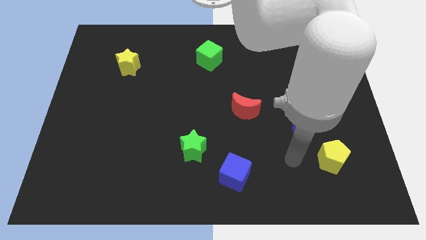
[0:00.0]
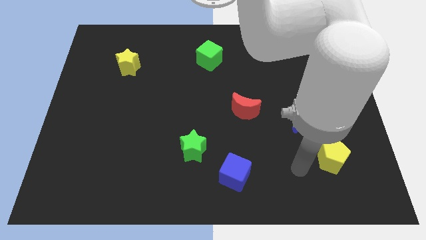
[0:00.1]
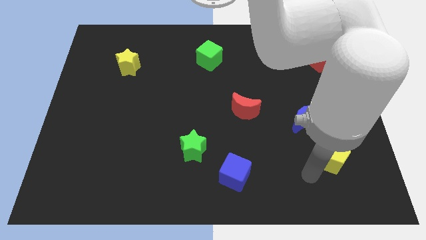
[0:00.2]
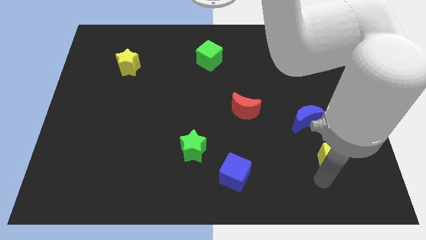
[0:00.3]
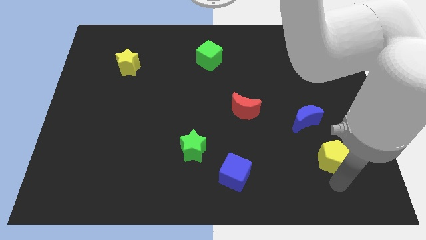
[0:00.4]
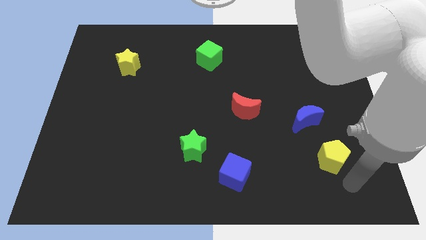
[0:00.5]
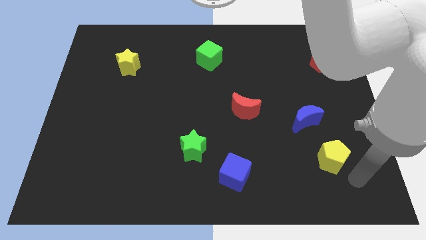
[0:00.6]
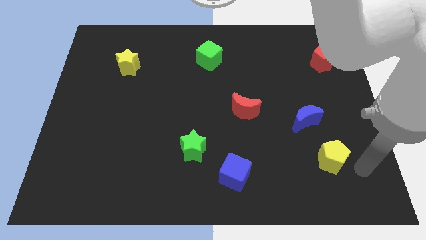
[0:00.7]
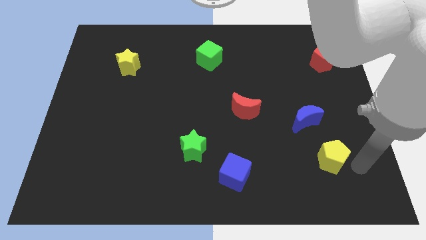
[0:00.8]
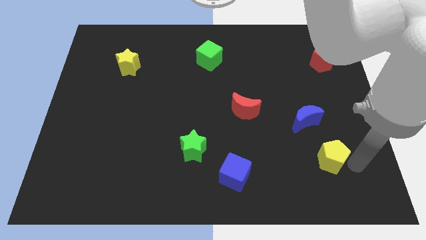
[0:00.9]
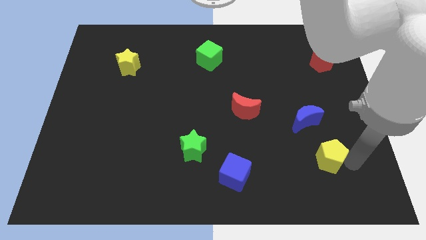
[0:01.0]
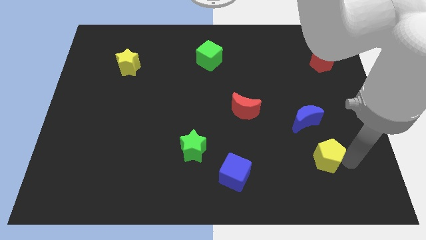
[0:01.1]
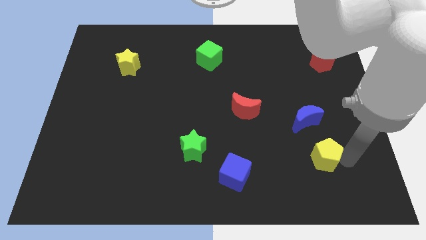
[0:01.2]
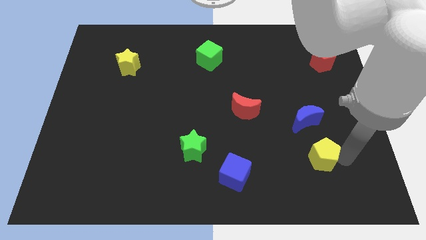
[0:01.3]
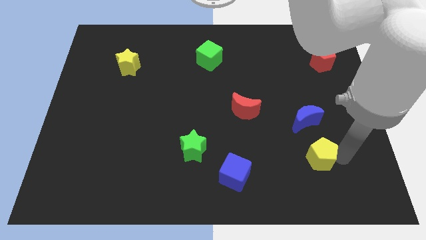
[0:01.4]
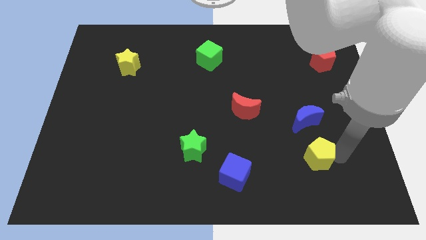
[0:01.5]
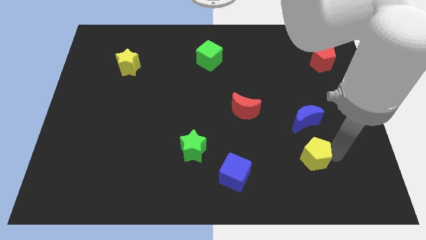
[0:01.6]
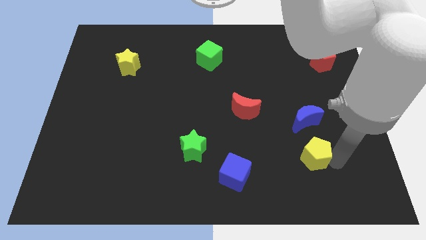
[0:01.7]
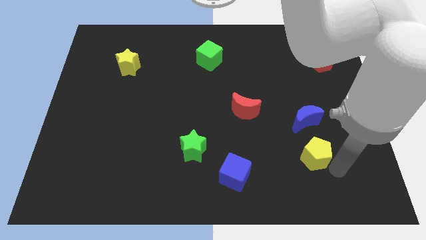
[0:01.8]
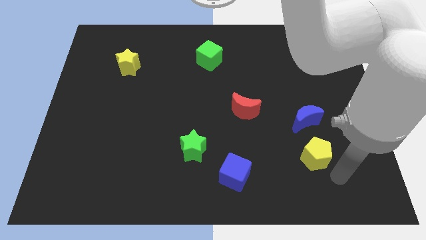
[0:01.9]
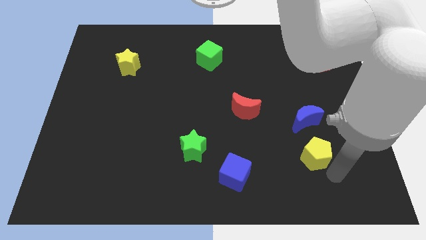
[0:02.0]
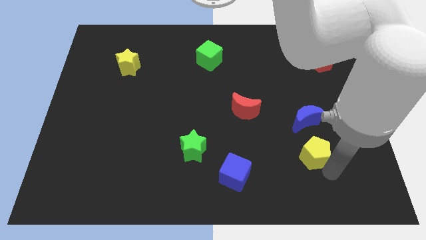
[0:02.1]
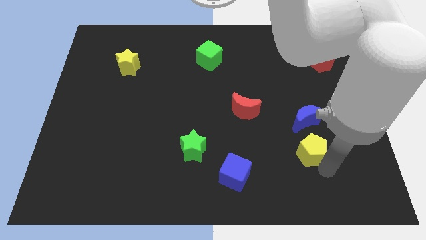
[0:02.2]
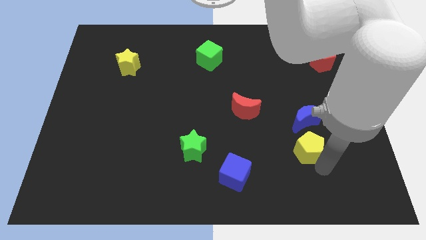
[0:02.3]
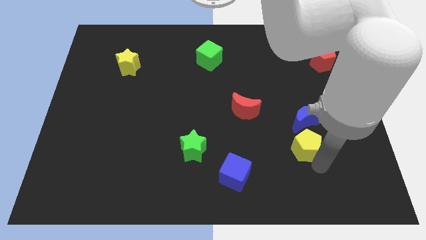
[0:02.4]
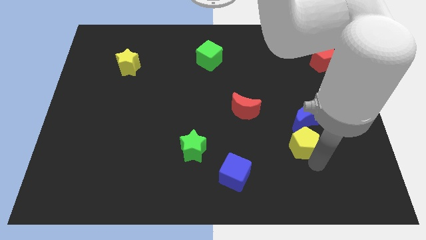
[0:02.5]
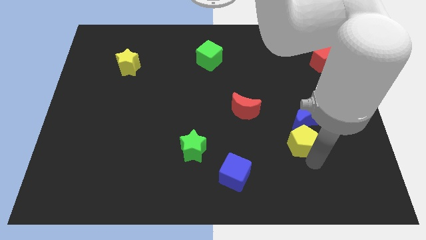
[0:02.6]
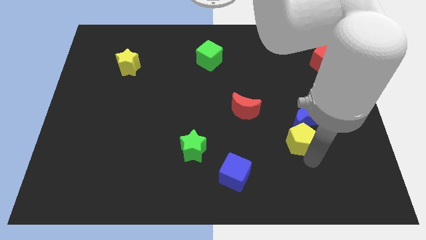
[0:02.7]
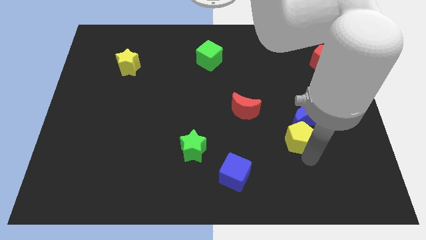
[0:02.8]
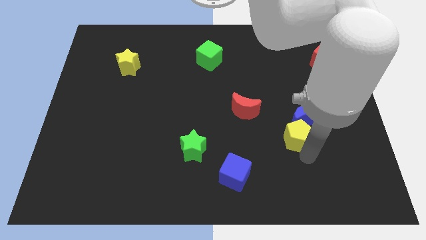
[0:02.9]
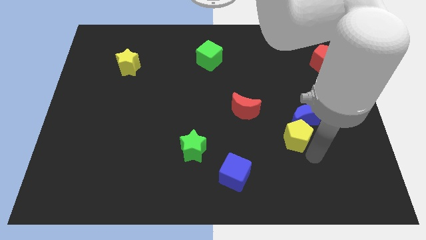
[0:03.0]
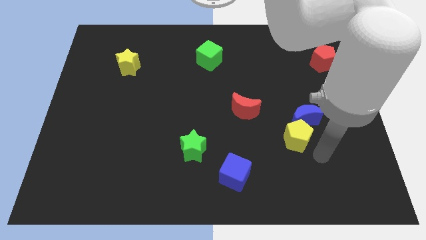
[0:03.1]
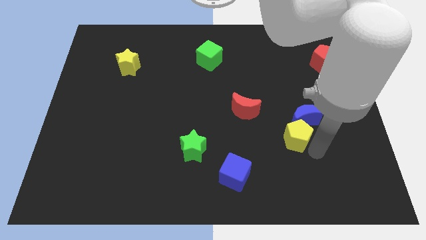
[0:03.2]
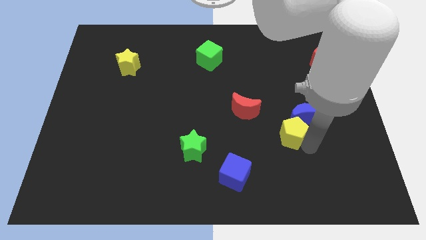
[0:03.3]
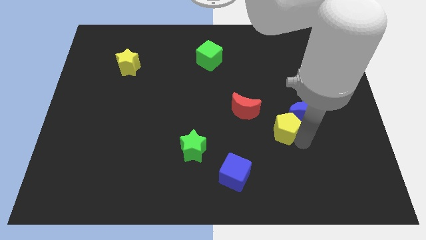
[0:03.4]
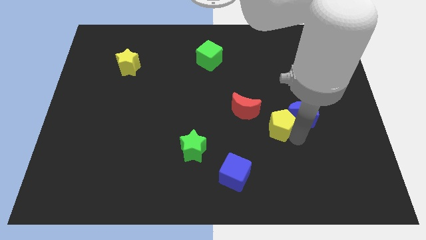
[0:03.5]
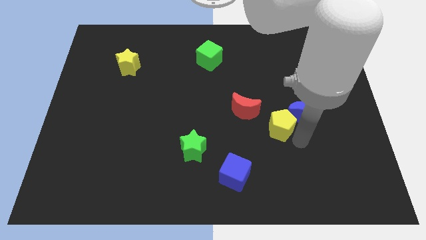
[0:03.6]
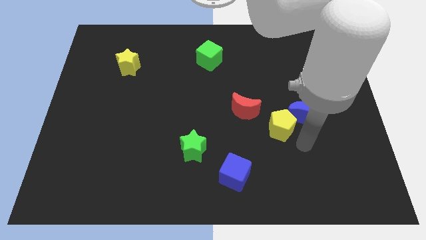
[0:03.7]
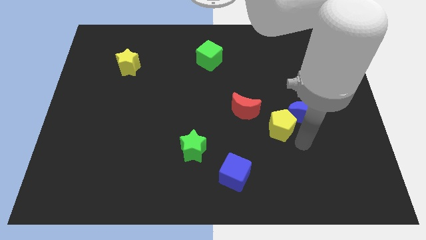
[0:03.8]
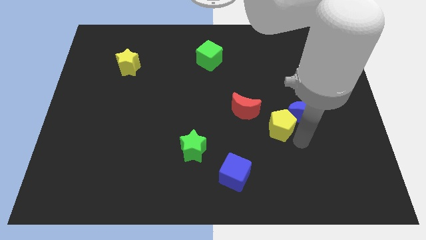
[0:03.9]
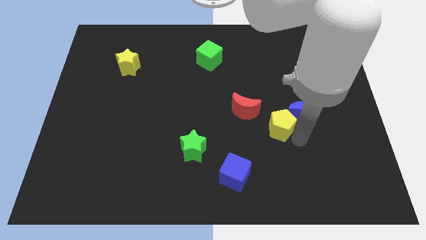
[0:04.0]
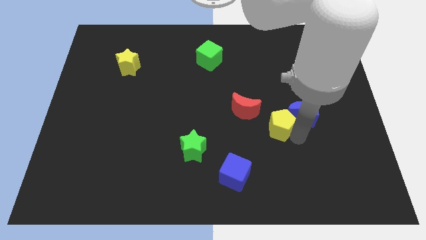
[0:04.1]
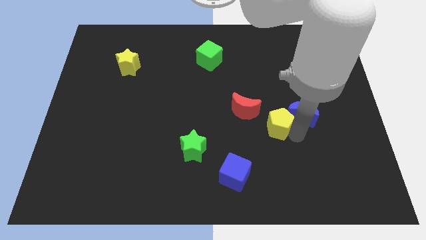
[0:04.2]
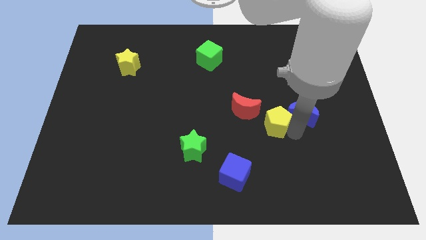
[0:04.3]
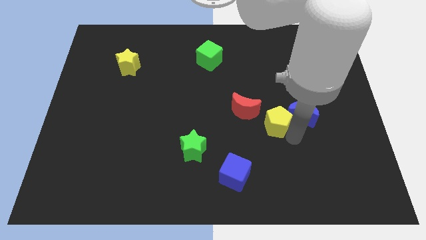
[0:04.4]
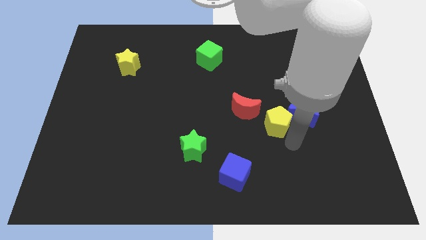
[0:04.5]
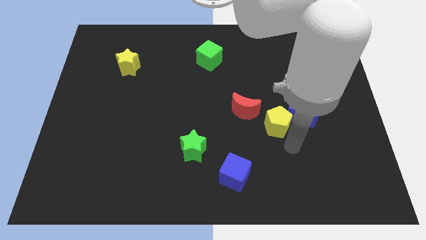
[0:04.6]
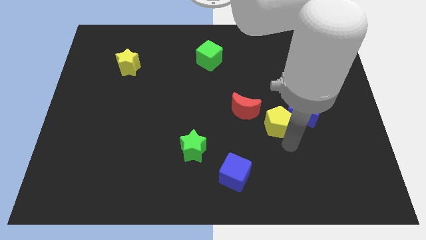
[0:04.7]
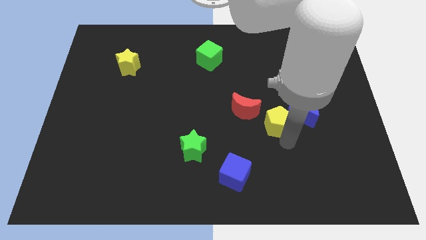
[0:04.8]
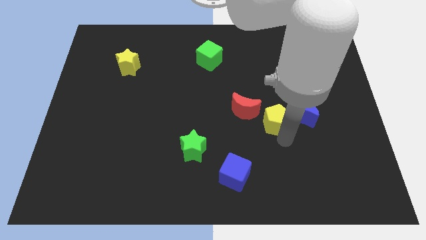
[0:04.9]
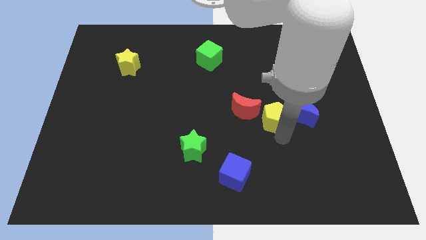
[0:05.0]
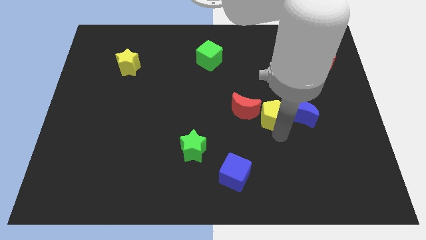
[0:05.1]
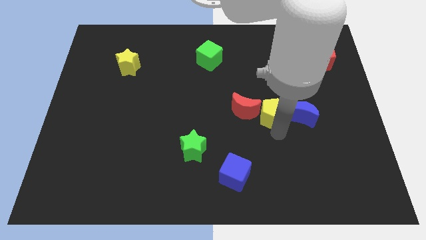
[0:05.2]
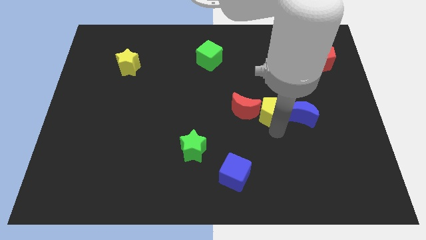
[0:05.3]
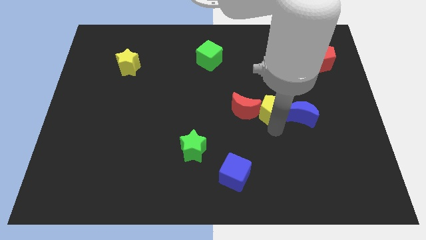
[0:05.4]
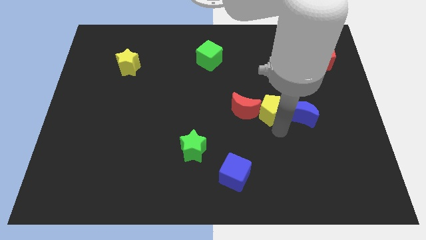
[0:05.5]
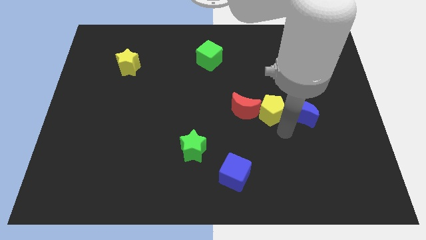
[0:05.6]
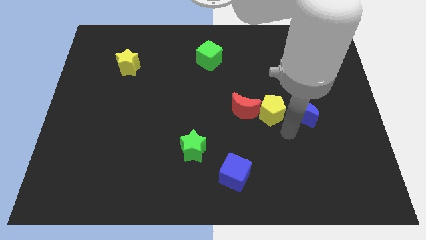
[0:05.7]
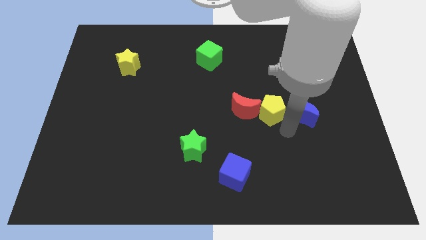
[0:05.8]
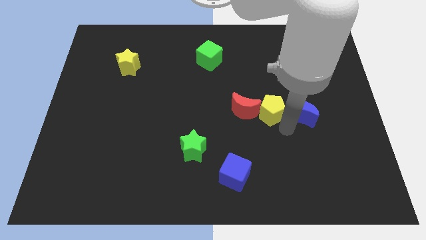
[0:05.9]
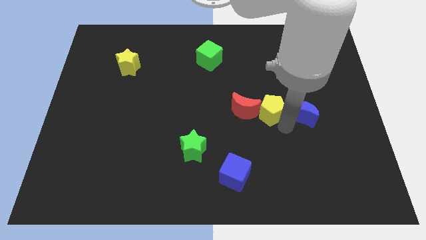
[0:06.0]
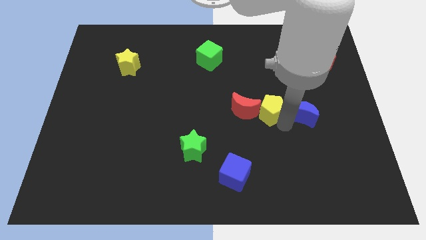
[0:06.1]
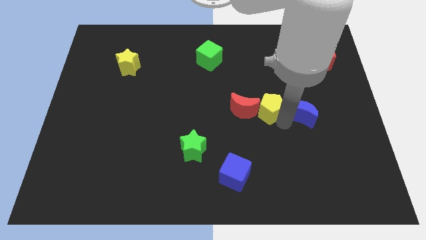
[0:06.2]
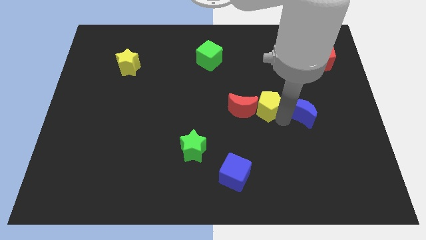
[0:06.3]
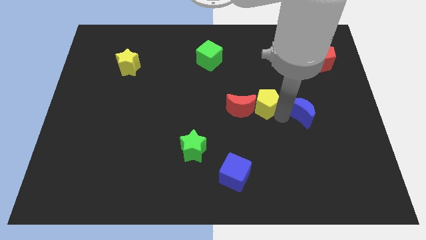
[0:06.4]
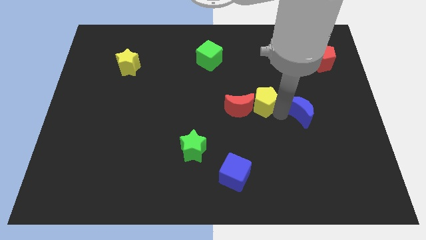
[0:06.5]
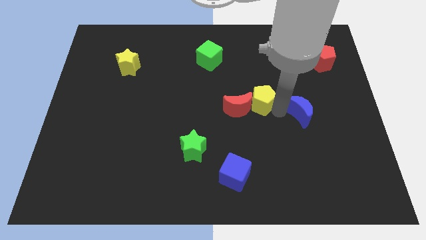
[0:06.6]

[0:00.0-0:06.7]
slide the yellow pentagon up and left

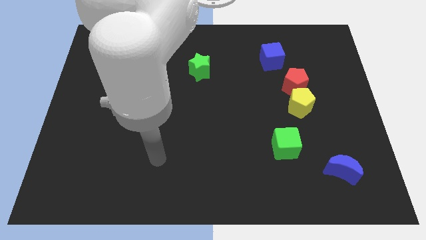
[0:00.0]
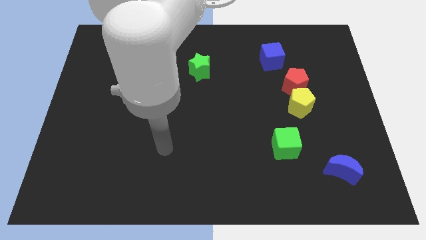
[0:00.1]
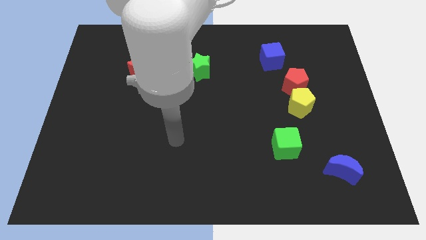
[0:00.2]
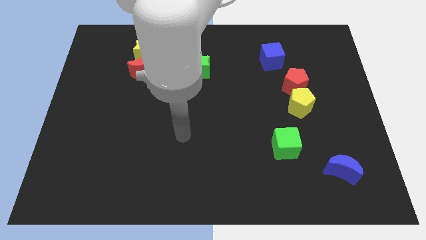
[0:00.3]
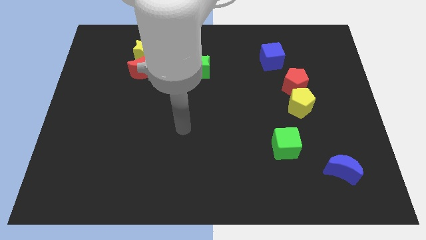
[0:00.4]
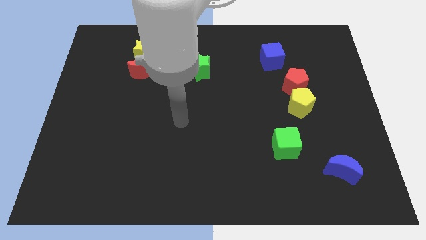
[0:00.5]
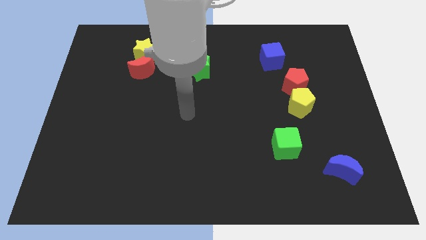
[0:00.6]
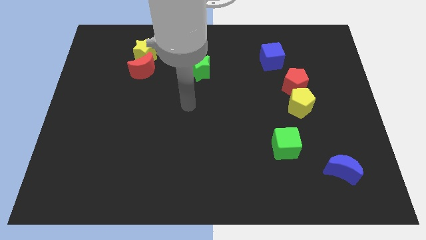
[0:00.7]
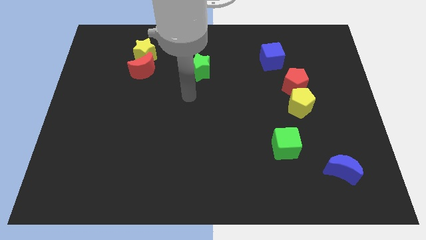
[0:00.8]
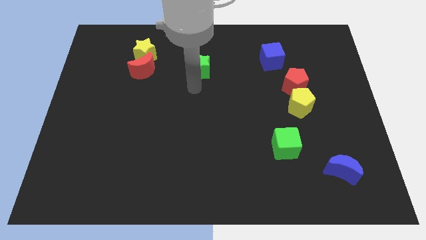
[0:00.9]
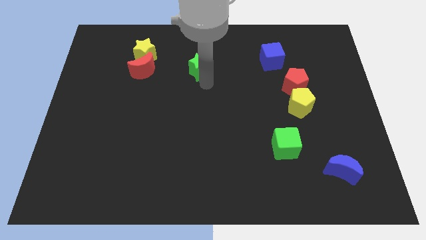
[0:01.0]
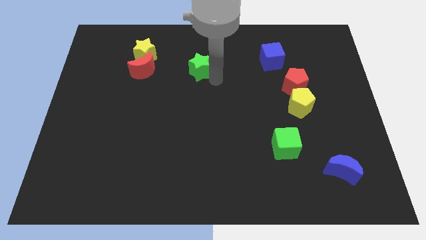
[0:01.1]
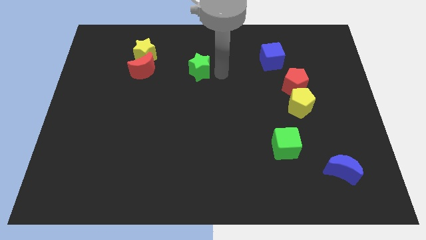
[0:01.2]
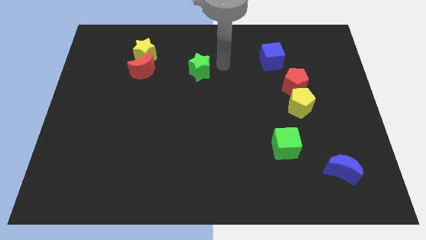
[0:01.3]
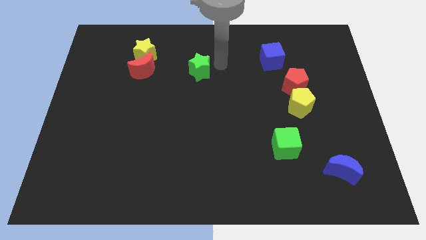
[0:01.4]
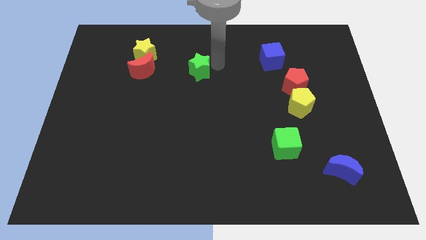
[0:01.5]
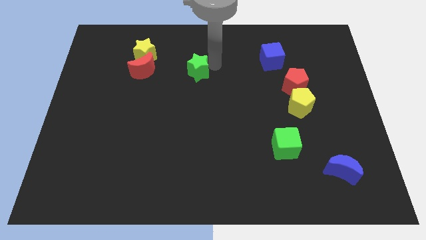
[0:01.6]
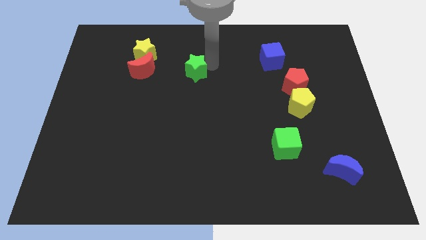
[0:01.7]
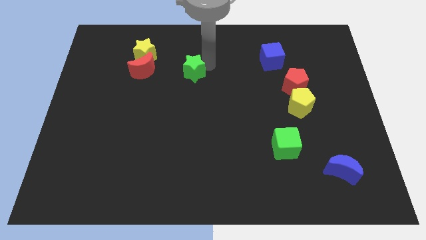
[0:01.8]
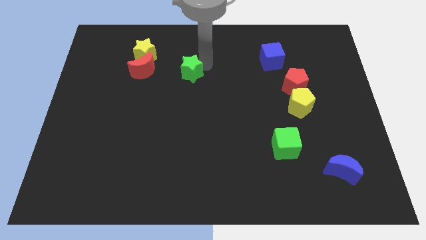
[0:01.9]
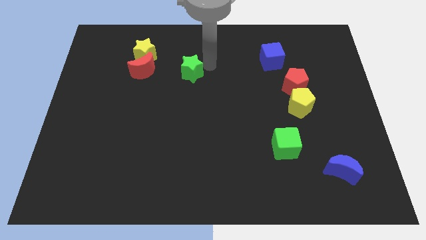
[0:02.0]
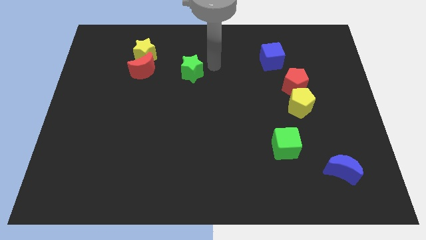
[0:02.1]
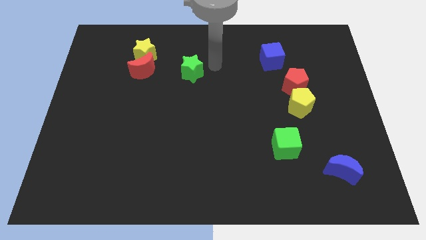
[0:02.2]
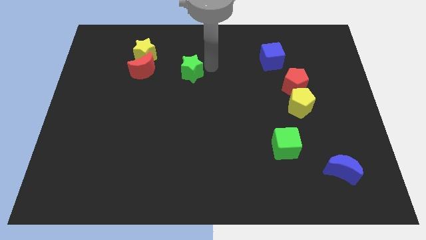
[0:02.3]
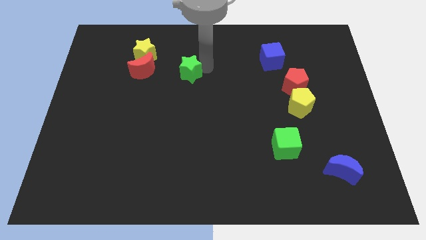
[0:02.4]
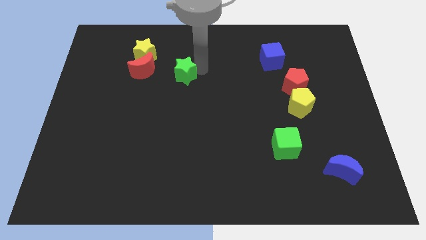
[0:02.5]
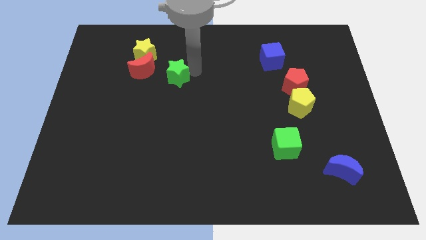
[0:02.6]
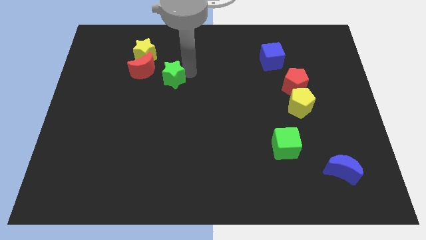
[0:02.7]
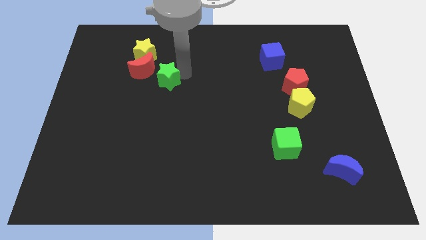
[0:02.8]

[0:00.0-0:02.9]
move the green star somewhat left
